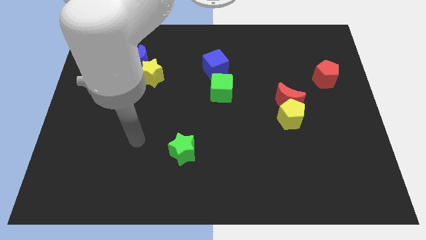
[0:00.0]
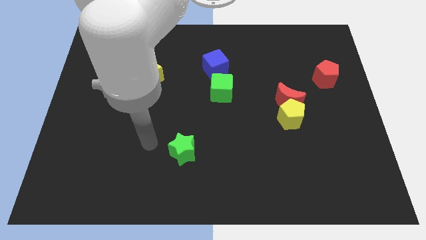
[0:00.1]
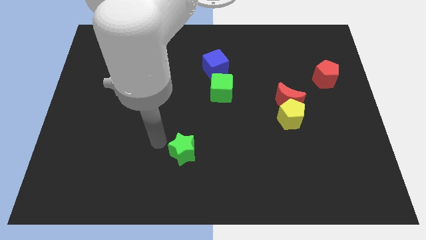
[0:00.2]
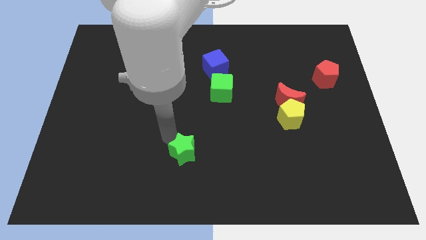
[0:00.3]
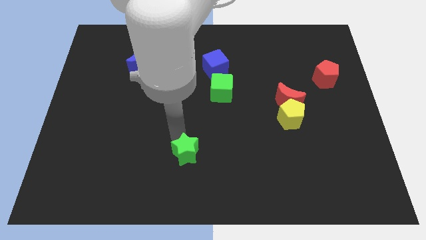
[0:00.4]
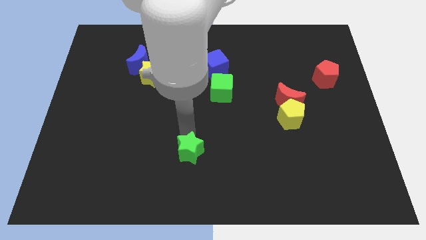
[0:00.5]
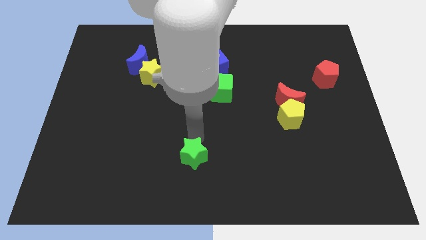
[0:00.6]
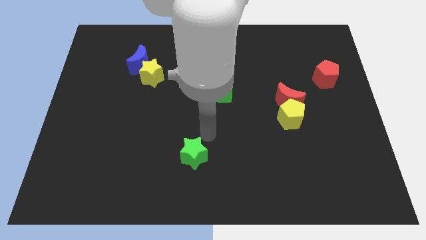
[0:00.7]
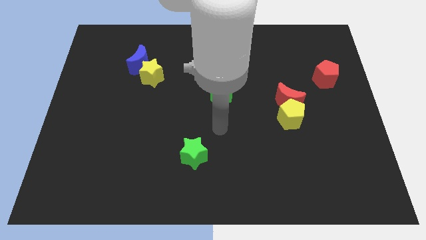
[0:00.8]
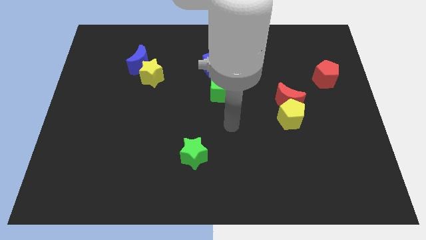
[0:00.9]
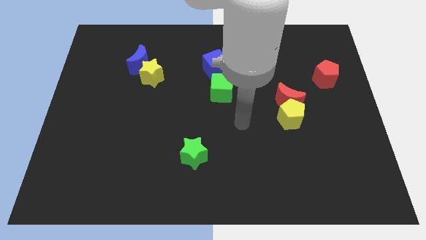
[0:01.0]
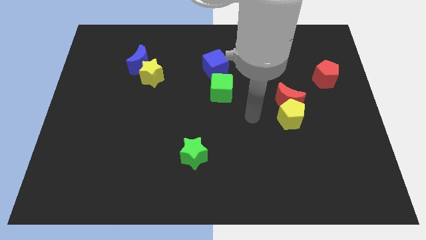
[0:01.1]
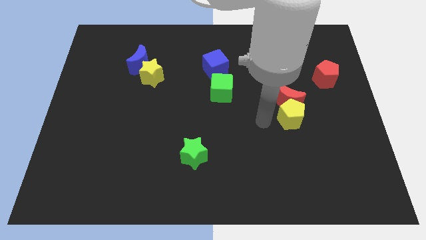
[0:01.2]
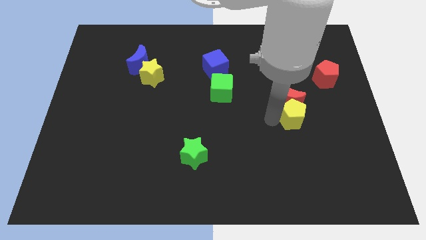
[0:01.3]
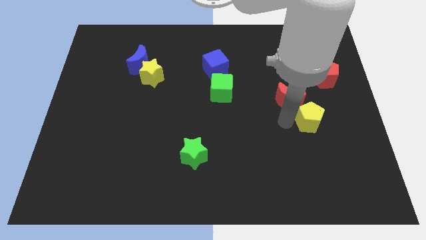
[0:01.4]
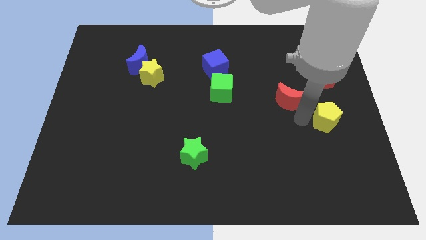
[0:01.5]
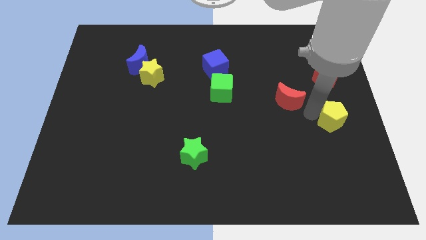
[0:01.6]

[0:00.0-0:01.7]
separate the red moon from the yellow pentagon

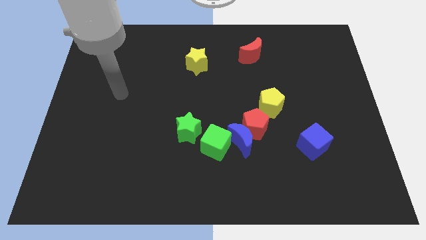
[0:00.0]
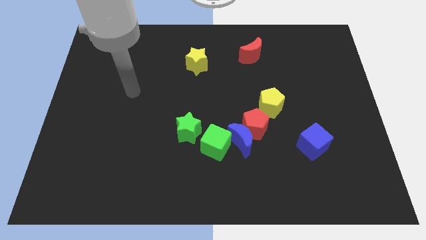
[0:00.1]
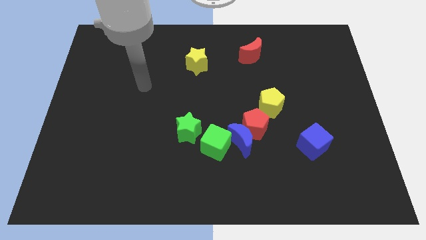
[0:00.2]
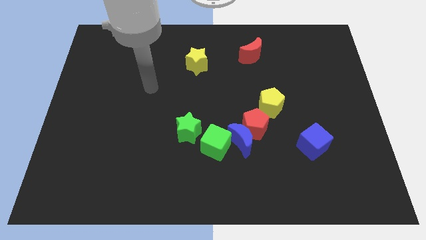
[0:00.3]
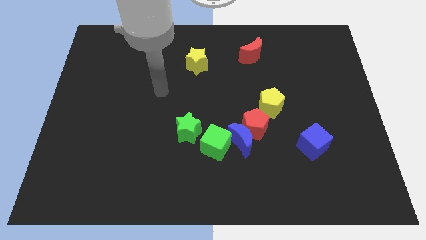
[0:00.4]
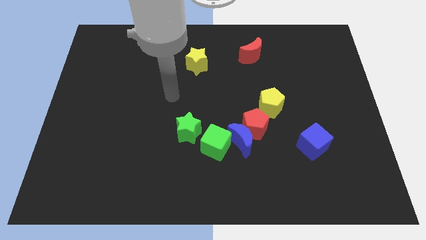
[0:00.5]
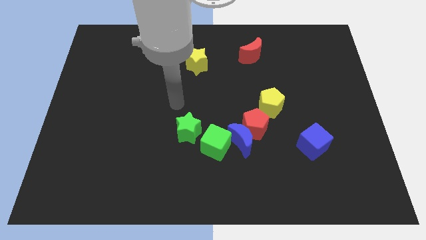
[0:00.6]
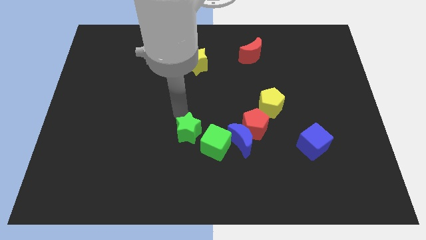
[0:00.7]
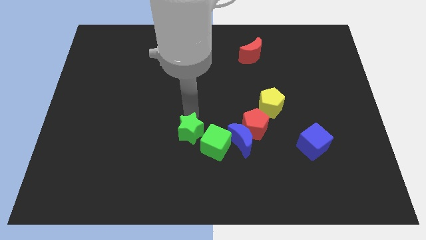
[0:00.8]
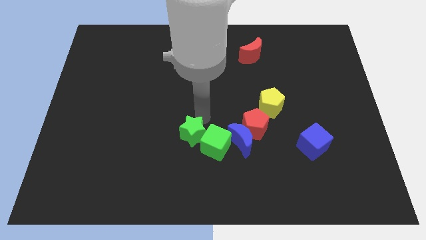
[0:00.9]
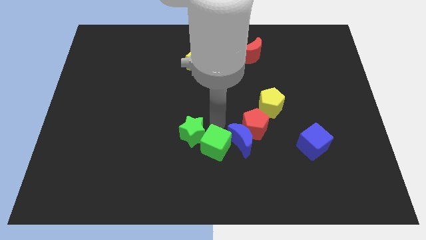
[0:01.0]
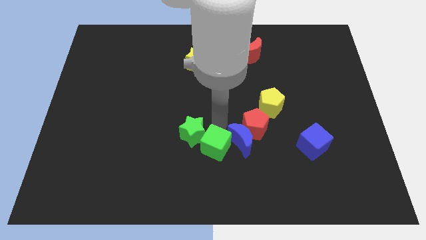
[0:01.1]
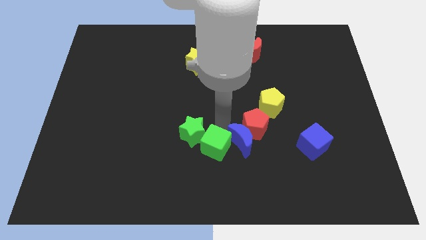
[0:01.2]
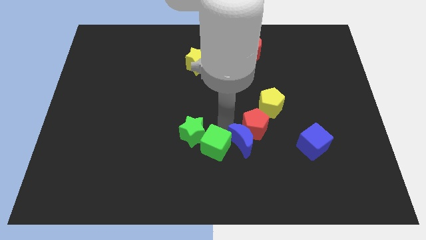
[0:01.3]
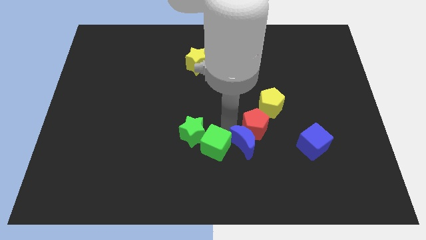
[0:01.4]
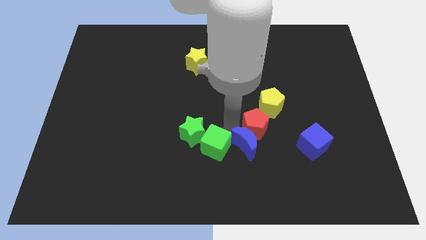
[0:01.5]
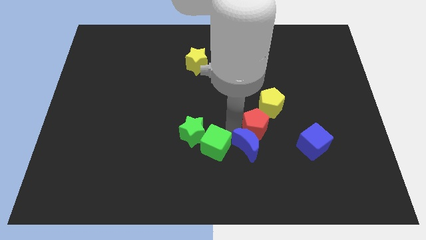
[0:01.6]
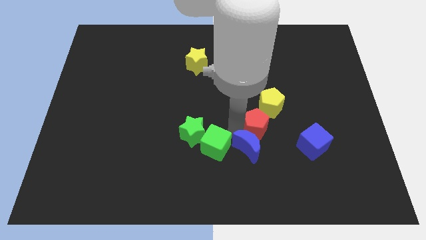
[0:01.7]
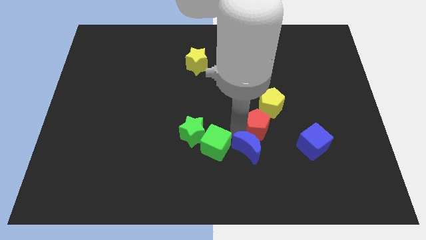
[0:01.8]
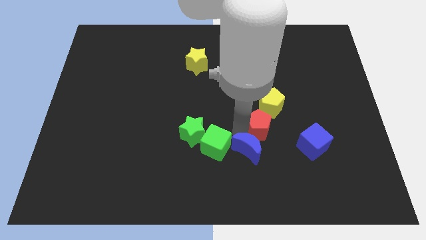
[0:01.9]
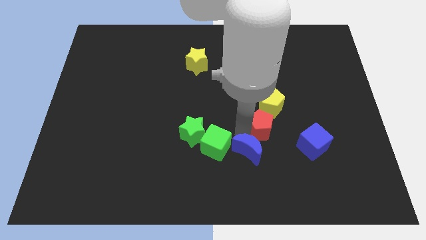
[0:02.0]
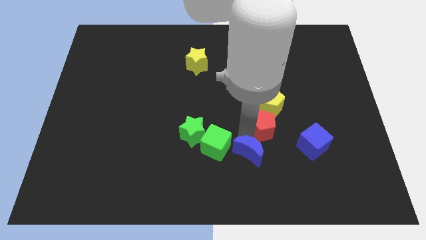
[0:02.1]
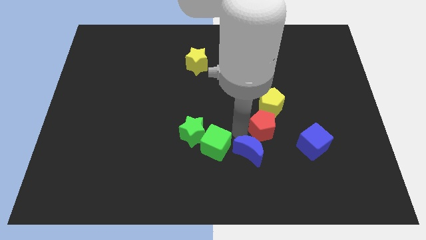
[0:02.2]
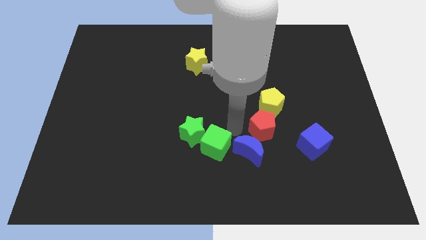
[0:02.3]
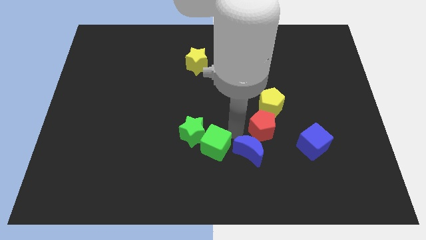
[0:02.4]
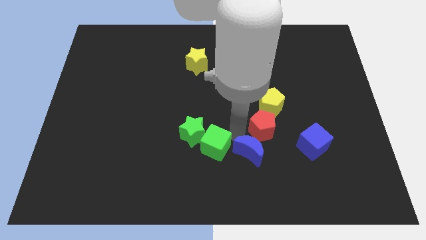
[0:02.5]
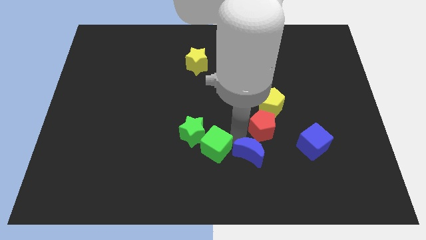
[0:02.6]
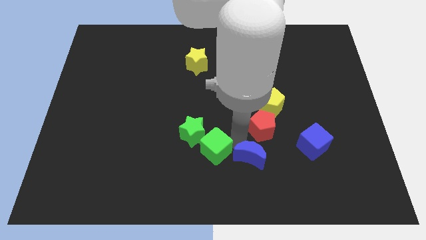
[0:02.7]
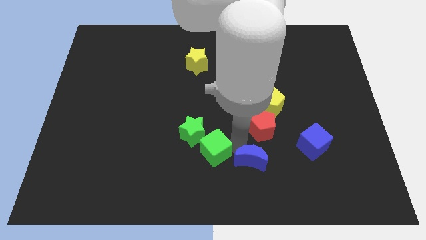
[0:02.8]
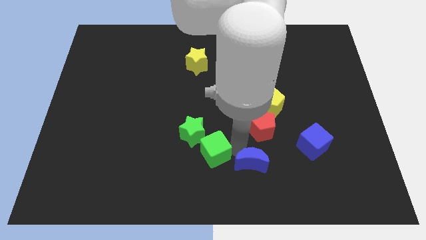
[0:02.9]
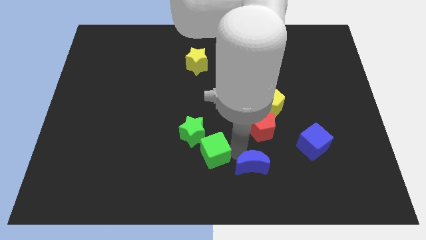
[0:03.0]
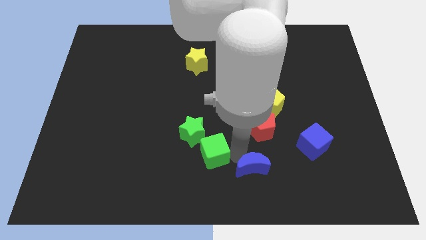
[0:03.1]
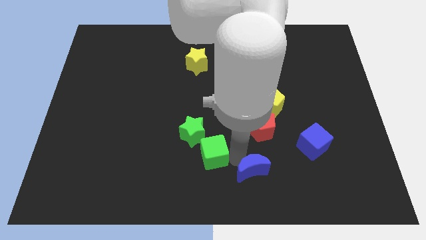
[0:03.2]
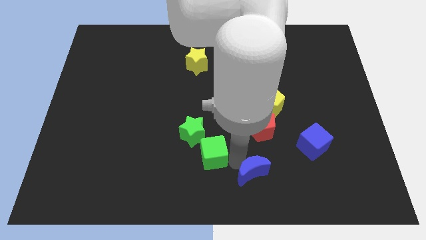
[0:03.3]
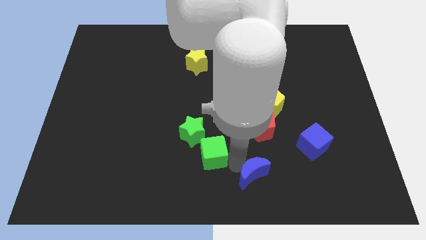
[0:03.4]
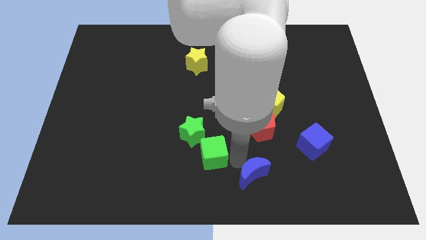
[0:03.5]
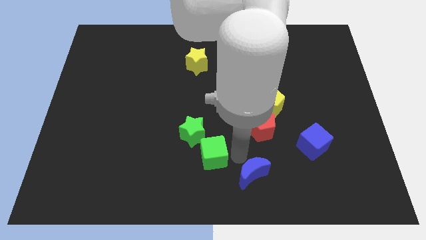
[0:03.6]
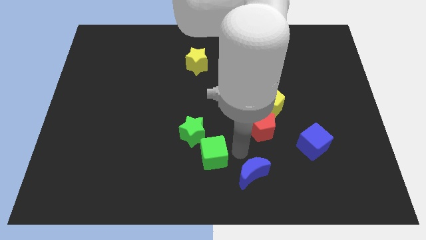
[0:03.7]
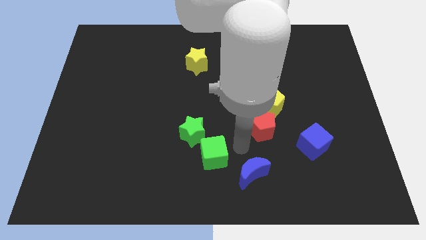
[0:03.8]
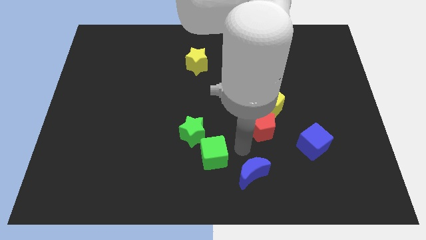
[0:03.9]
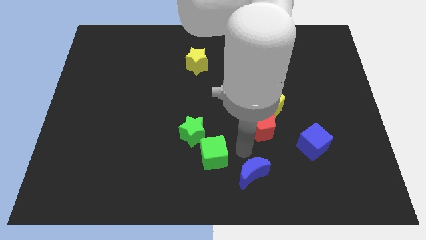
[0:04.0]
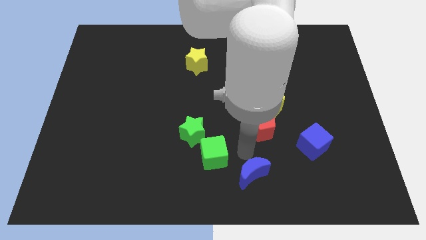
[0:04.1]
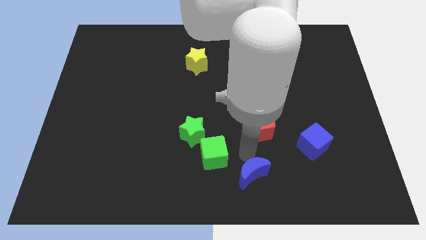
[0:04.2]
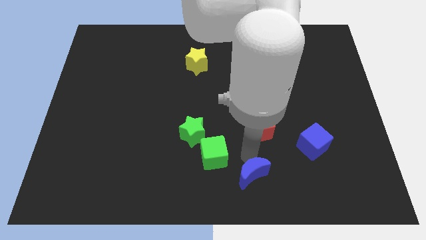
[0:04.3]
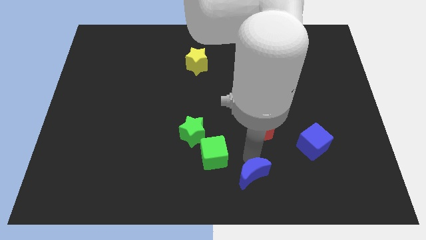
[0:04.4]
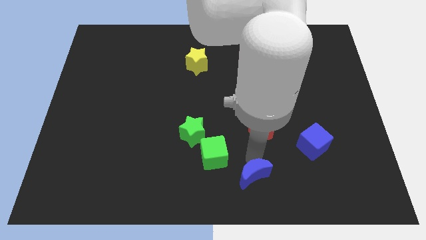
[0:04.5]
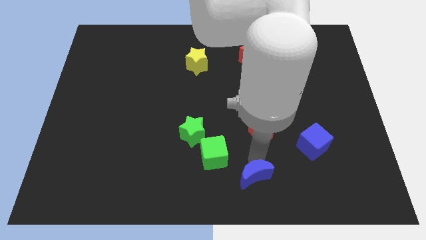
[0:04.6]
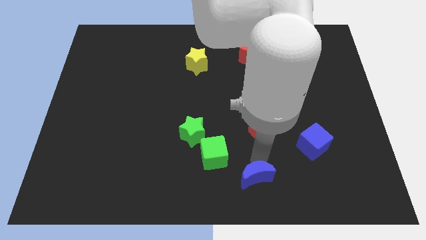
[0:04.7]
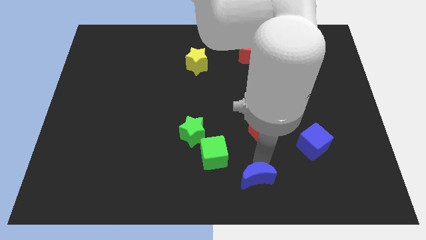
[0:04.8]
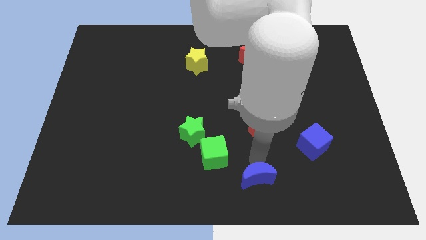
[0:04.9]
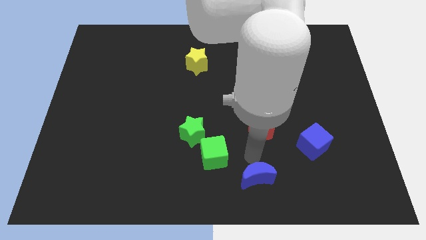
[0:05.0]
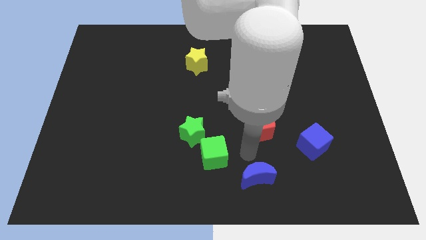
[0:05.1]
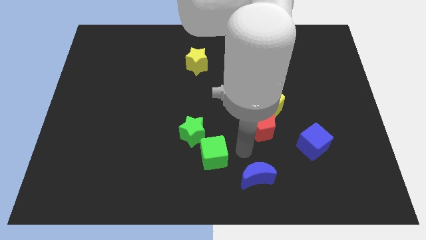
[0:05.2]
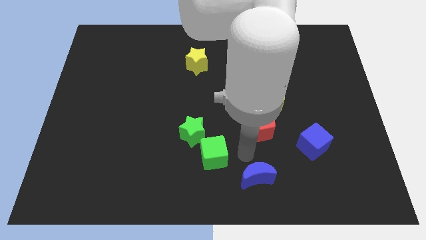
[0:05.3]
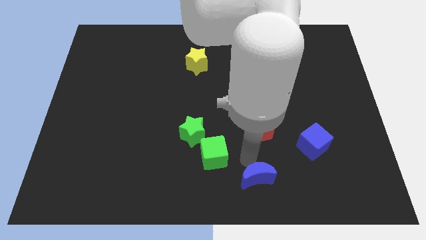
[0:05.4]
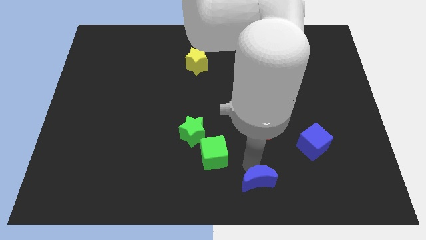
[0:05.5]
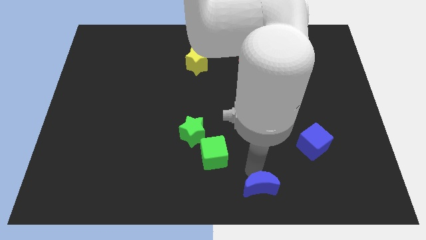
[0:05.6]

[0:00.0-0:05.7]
separate the blue moon from the red pentagon and green cube

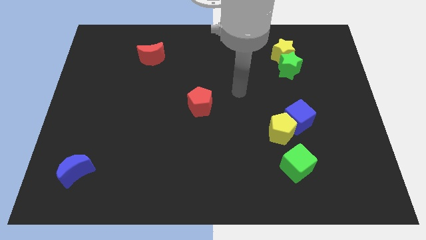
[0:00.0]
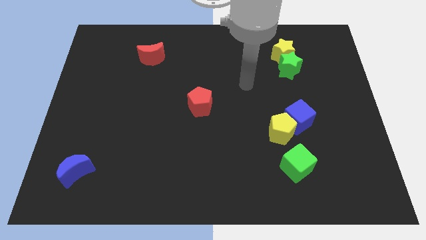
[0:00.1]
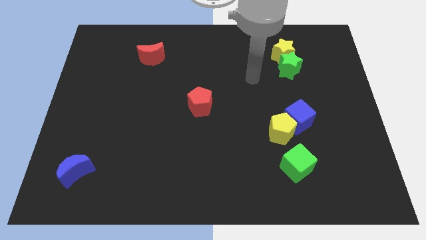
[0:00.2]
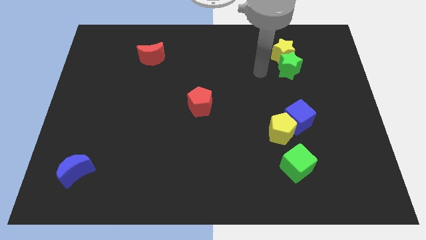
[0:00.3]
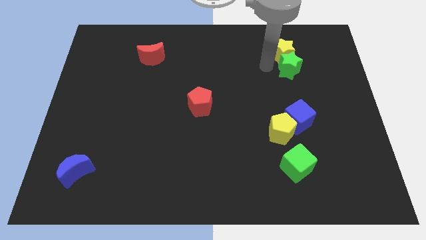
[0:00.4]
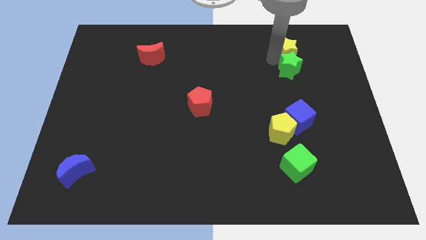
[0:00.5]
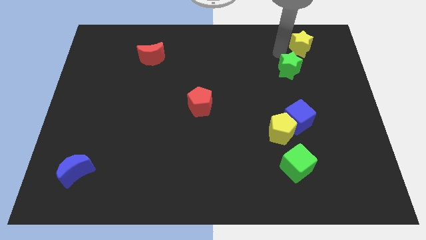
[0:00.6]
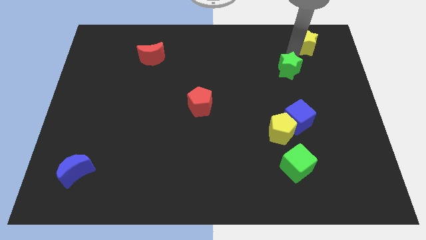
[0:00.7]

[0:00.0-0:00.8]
move the green star away from the yellow star

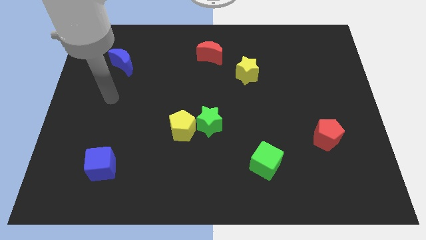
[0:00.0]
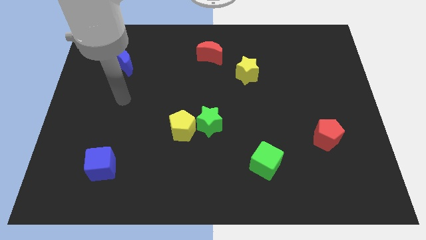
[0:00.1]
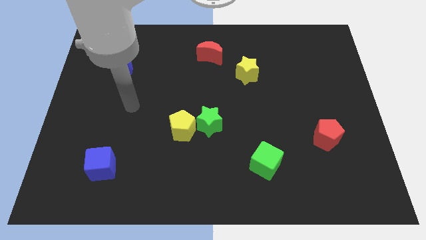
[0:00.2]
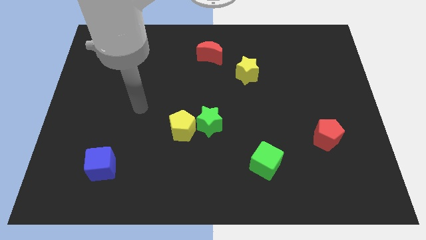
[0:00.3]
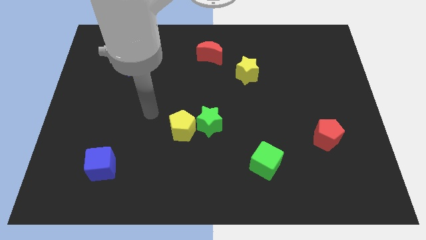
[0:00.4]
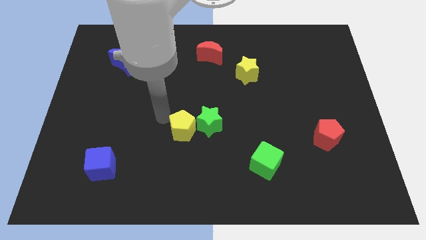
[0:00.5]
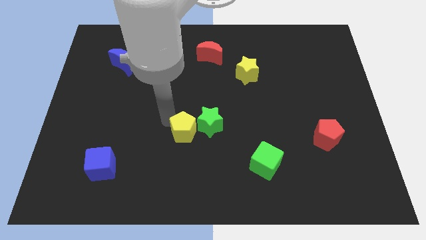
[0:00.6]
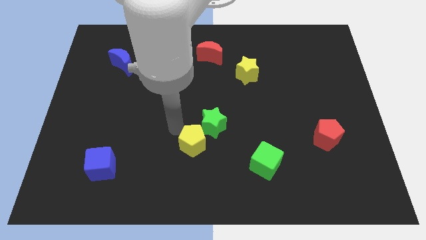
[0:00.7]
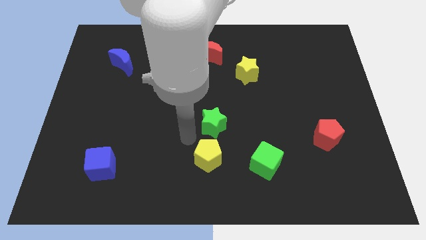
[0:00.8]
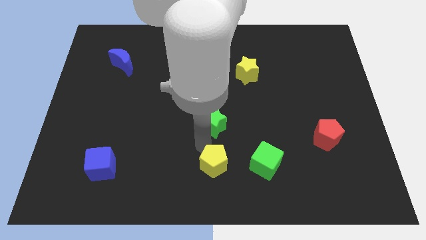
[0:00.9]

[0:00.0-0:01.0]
move the green star away from the yellow pentagon
